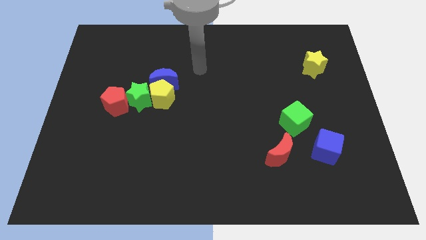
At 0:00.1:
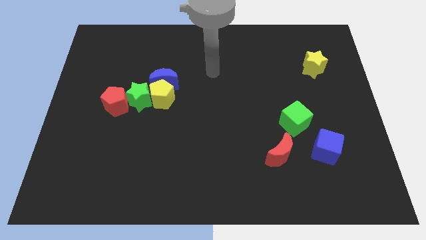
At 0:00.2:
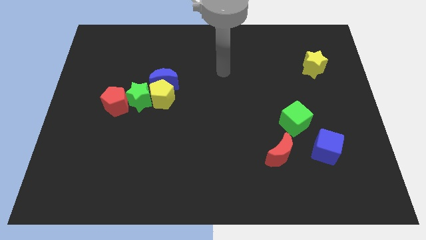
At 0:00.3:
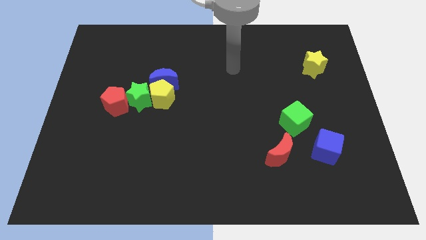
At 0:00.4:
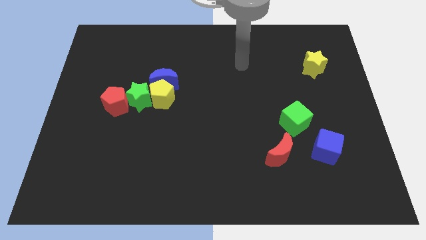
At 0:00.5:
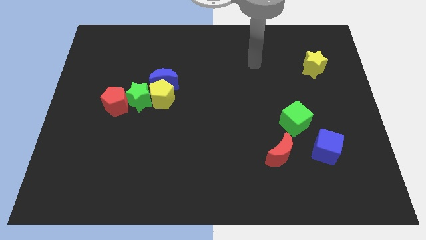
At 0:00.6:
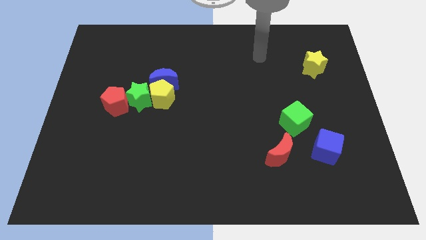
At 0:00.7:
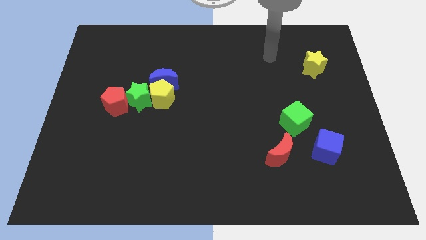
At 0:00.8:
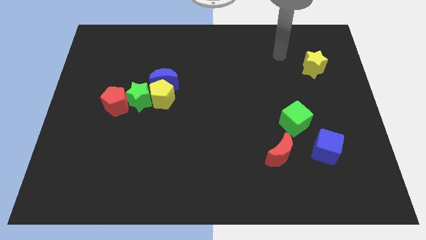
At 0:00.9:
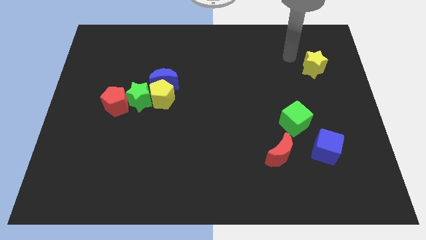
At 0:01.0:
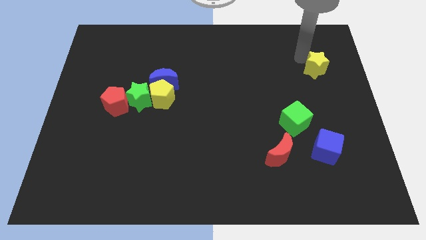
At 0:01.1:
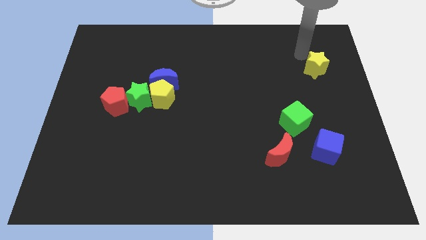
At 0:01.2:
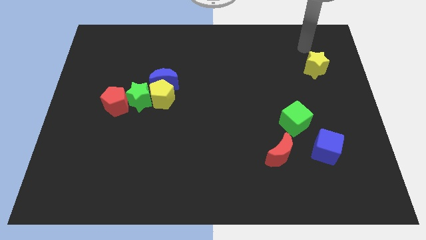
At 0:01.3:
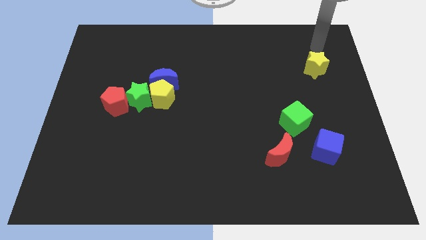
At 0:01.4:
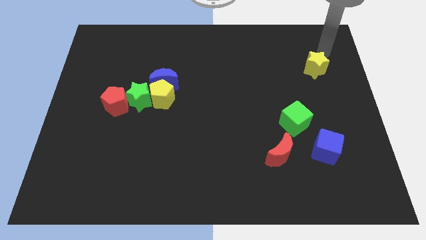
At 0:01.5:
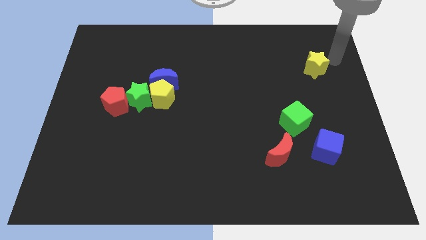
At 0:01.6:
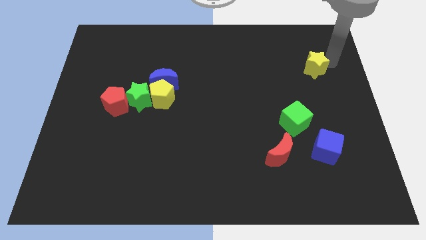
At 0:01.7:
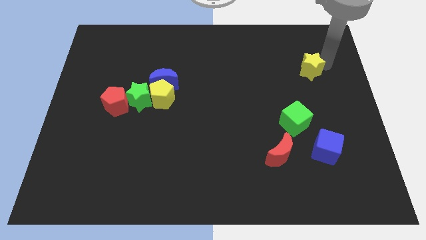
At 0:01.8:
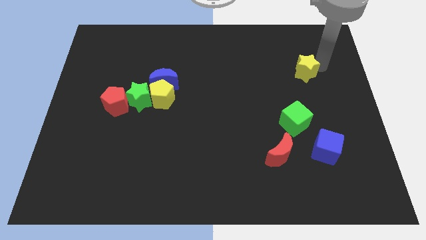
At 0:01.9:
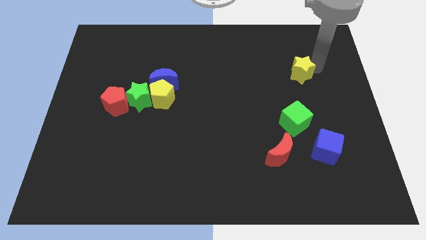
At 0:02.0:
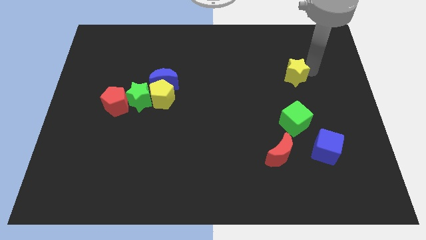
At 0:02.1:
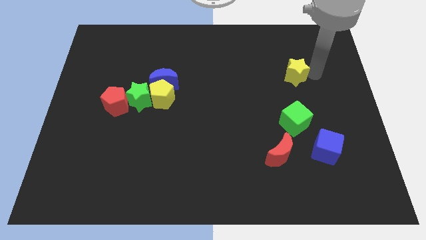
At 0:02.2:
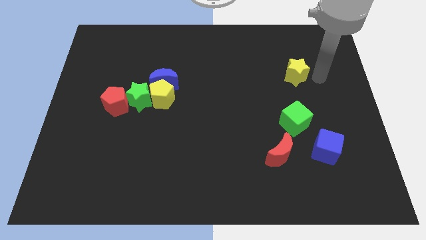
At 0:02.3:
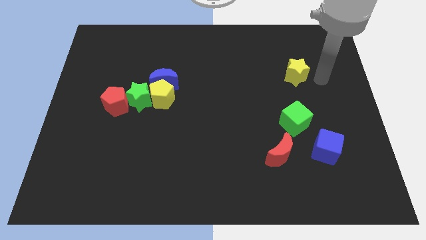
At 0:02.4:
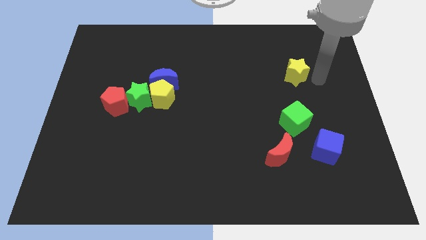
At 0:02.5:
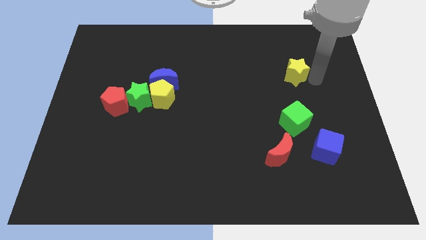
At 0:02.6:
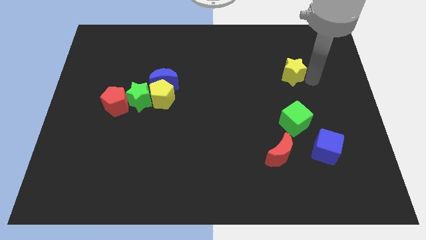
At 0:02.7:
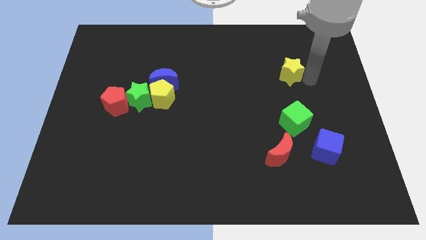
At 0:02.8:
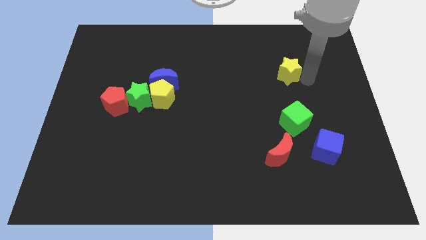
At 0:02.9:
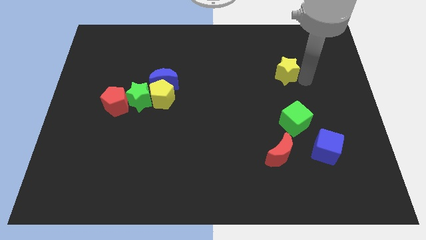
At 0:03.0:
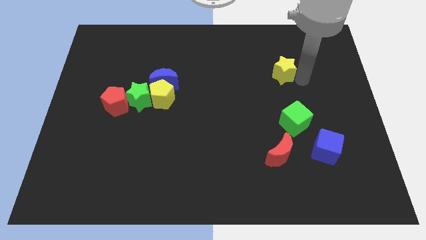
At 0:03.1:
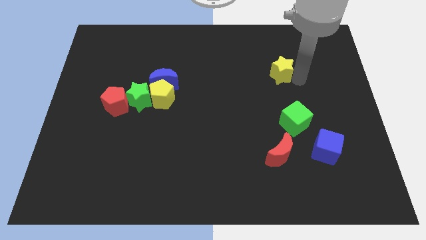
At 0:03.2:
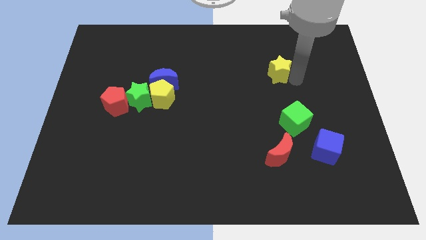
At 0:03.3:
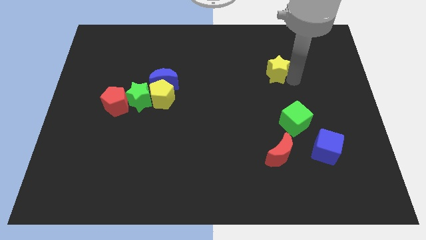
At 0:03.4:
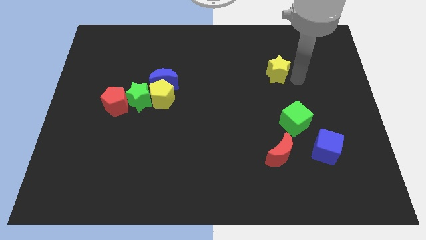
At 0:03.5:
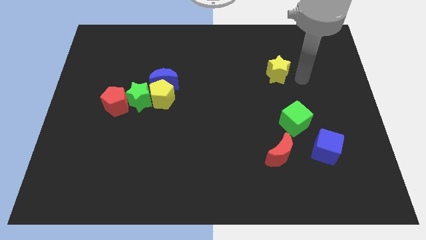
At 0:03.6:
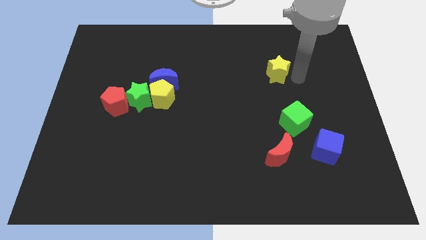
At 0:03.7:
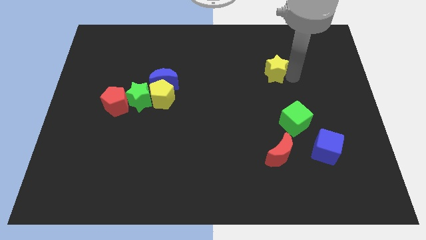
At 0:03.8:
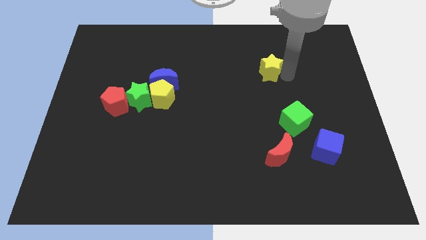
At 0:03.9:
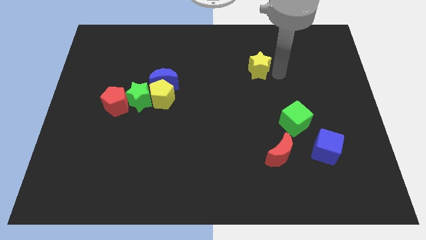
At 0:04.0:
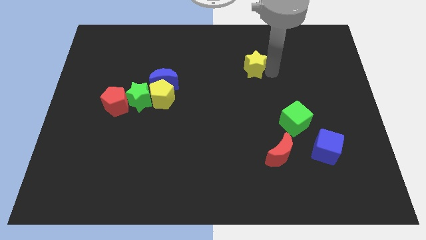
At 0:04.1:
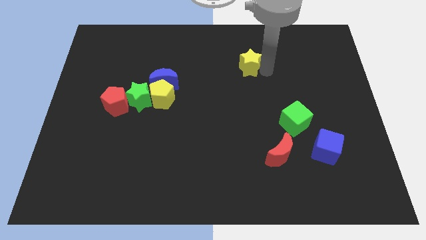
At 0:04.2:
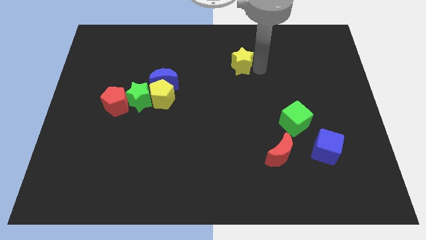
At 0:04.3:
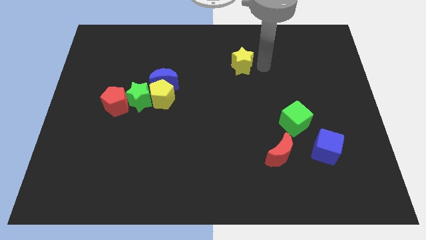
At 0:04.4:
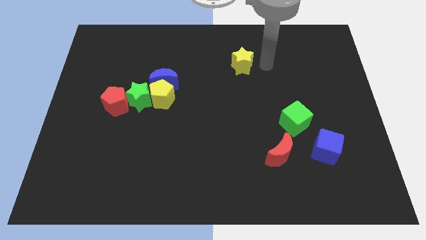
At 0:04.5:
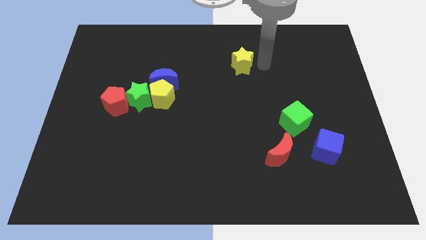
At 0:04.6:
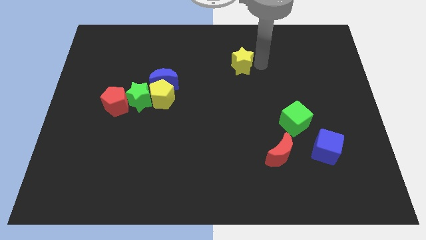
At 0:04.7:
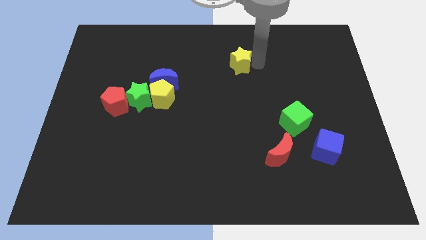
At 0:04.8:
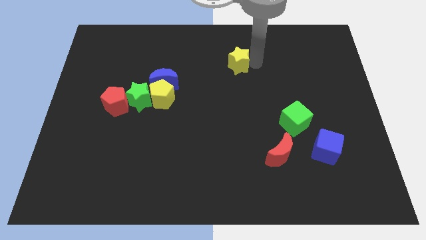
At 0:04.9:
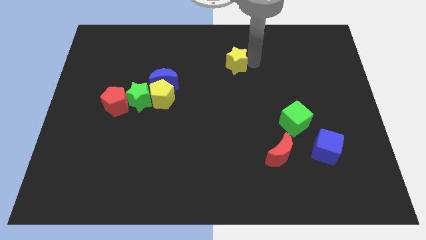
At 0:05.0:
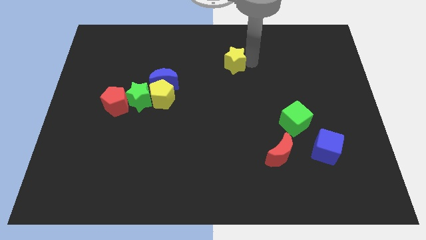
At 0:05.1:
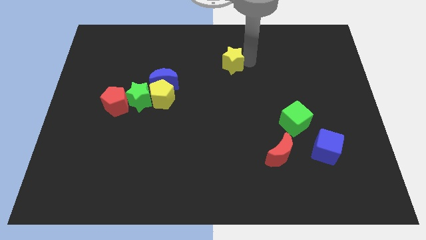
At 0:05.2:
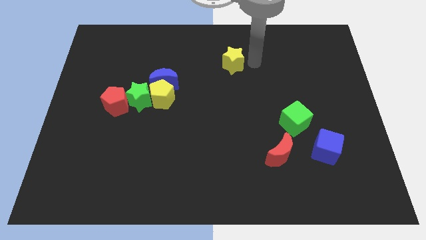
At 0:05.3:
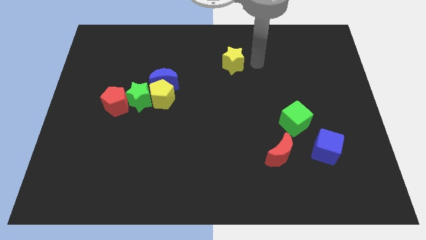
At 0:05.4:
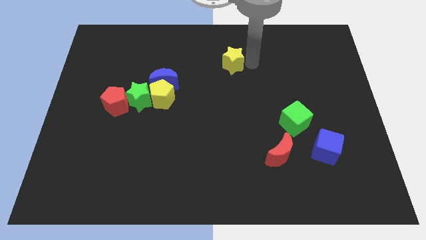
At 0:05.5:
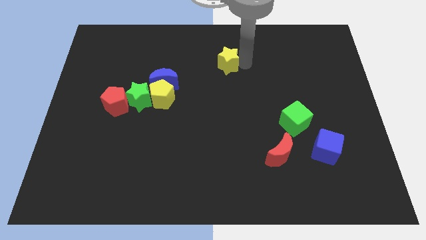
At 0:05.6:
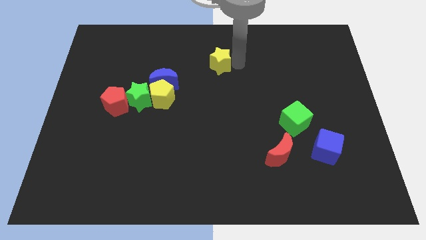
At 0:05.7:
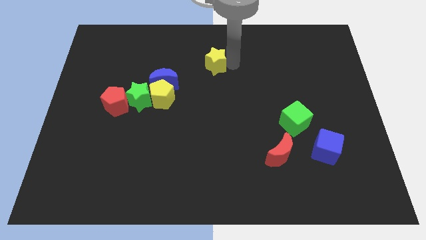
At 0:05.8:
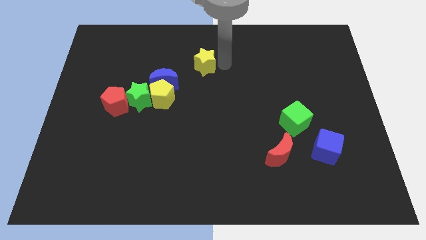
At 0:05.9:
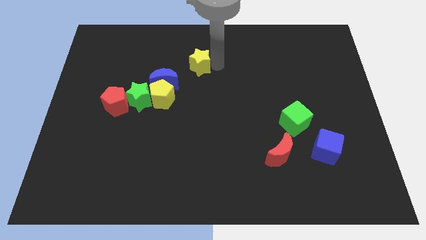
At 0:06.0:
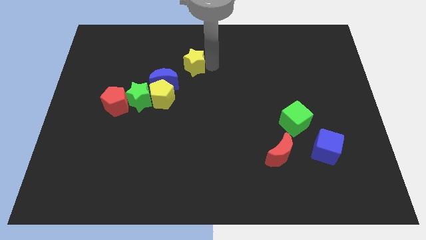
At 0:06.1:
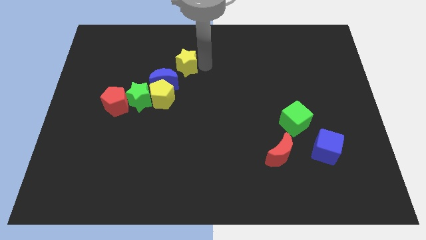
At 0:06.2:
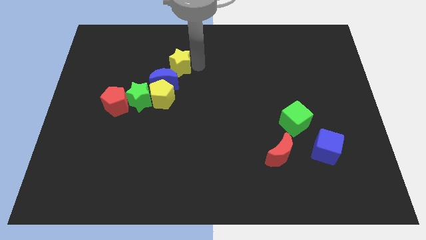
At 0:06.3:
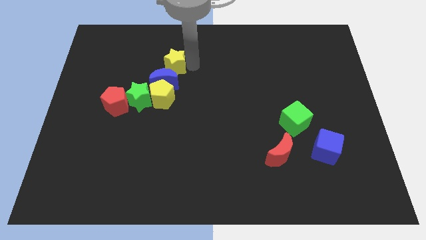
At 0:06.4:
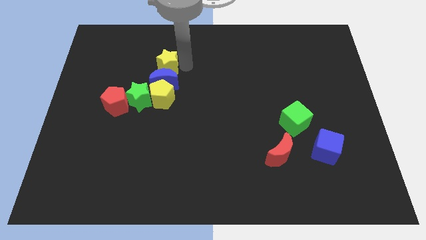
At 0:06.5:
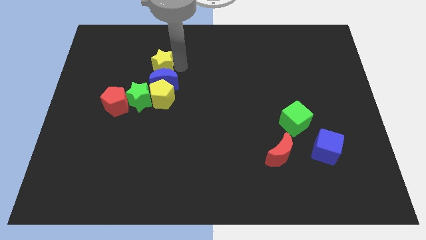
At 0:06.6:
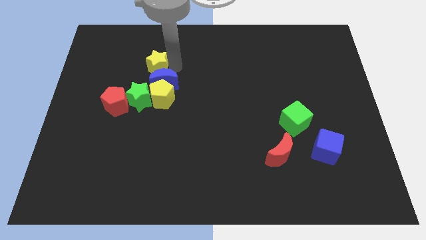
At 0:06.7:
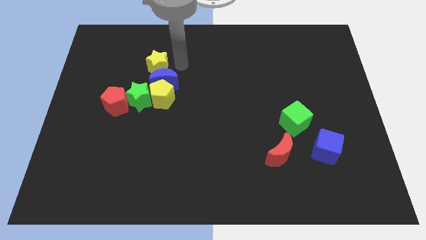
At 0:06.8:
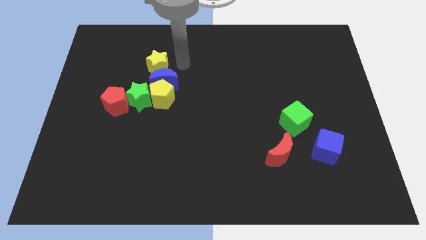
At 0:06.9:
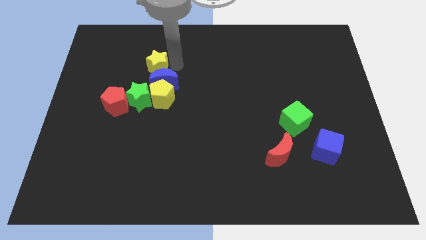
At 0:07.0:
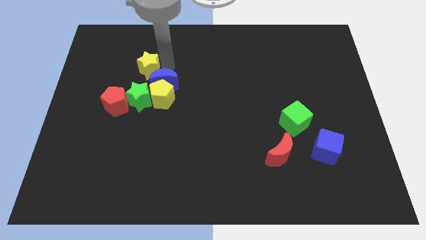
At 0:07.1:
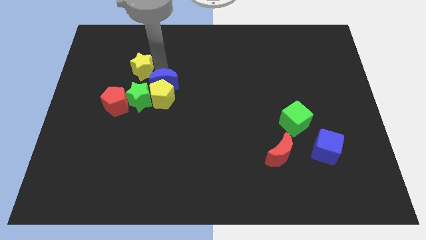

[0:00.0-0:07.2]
move the yellow star above the red pentagon
